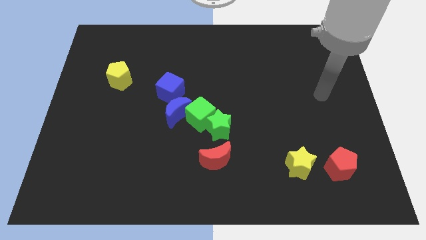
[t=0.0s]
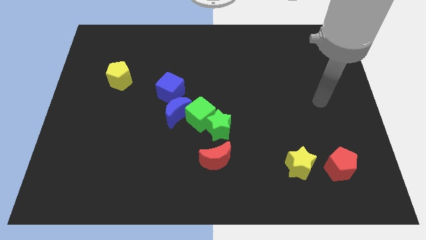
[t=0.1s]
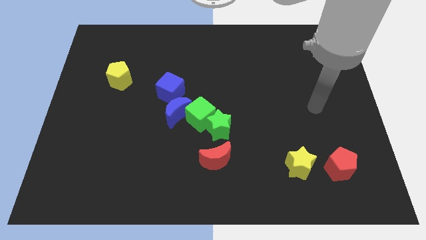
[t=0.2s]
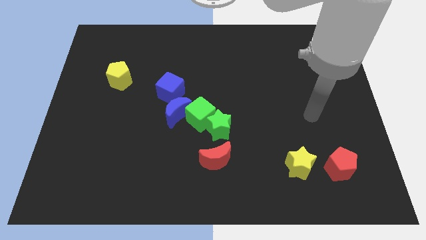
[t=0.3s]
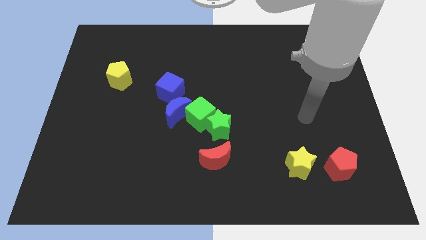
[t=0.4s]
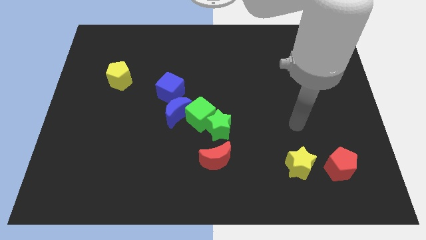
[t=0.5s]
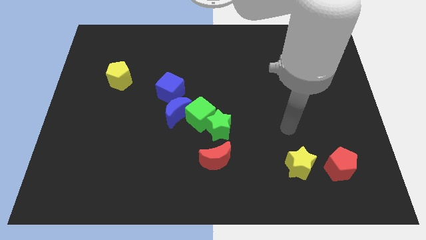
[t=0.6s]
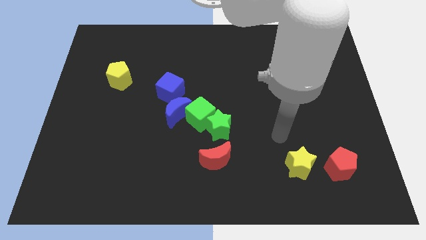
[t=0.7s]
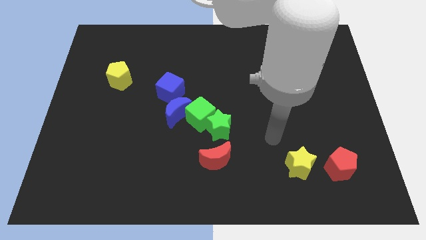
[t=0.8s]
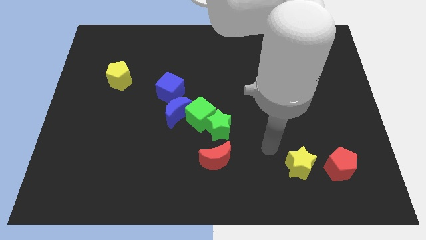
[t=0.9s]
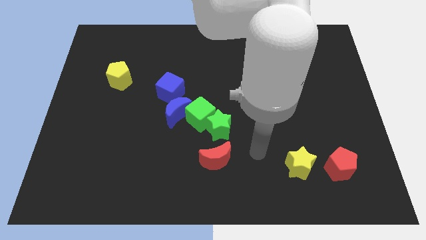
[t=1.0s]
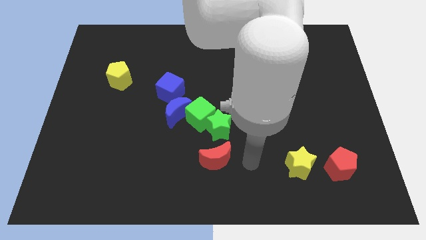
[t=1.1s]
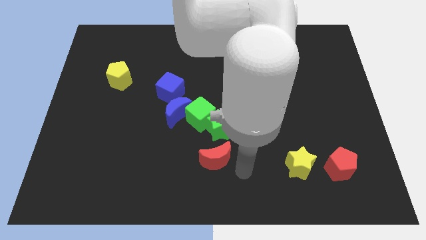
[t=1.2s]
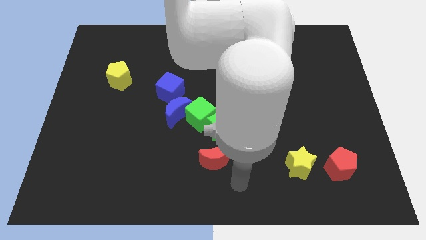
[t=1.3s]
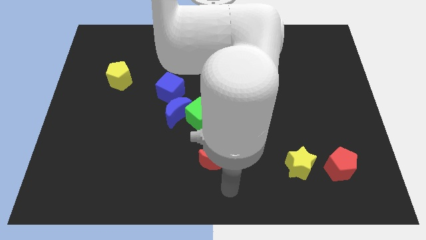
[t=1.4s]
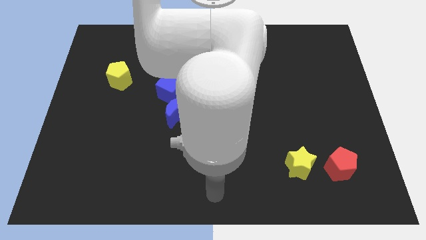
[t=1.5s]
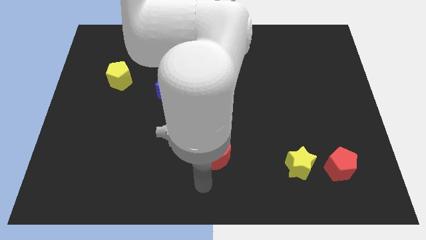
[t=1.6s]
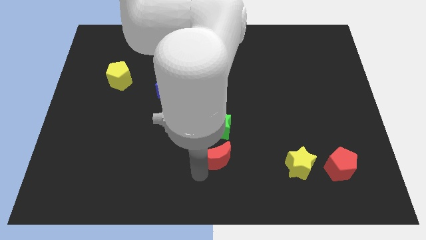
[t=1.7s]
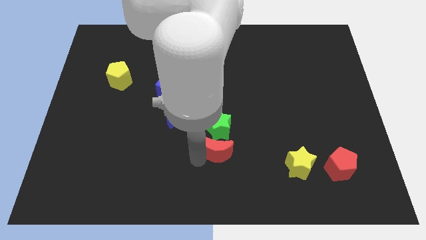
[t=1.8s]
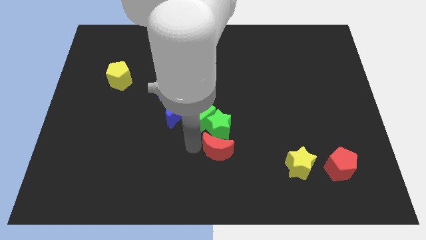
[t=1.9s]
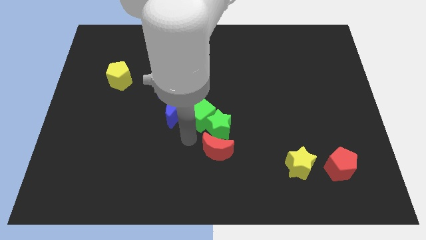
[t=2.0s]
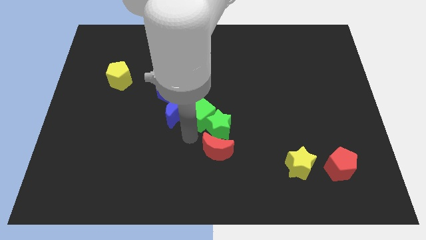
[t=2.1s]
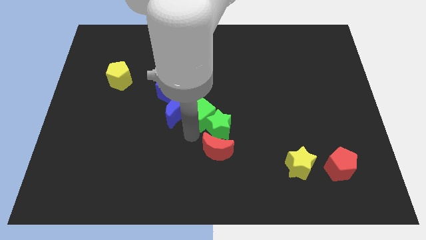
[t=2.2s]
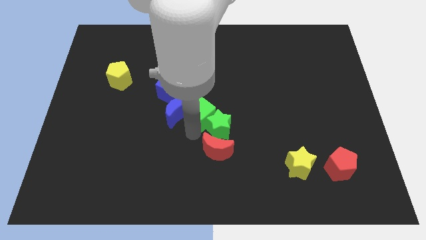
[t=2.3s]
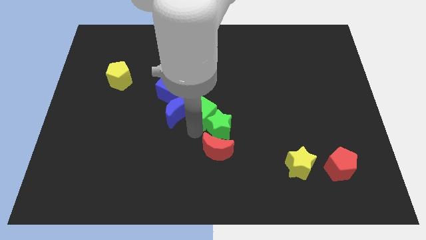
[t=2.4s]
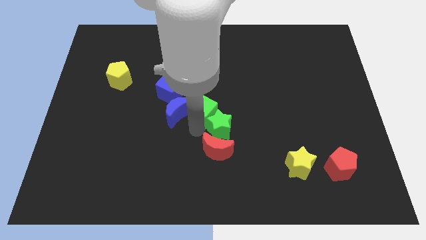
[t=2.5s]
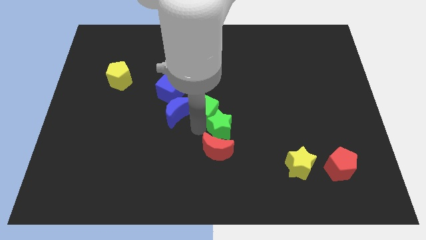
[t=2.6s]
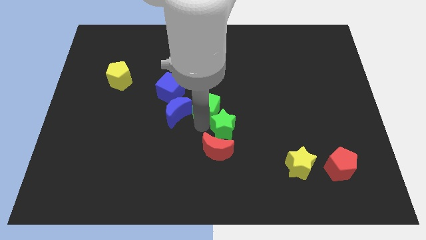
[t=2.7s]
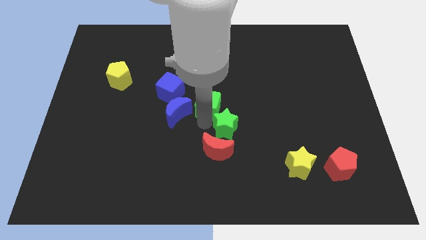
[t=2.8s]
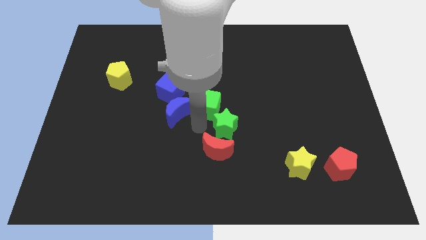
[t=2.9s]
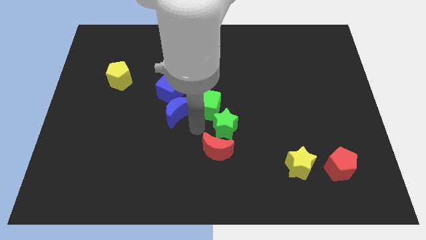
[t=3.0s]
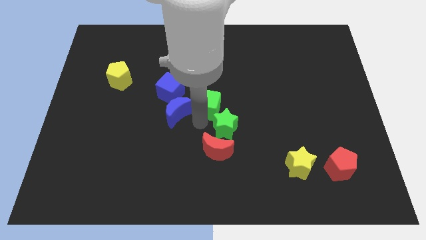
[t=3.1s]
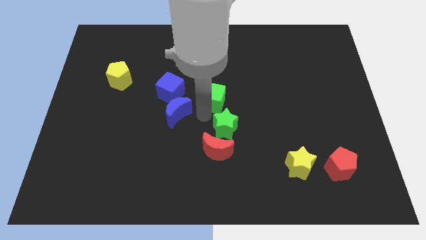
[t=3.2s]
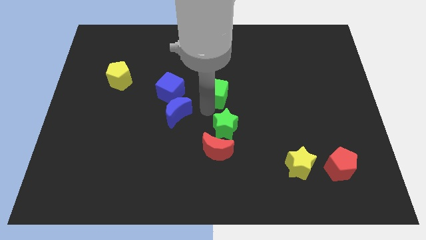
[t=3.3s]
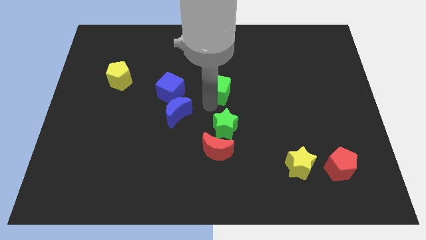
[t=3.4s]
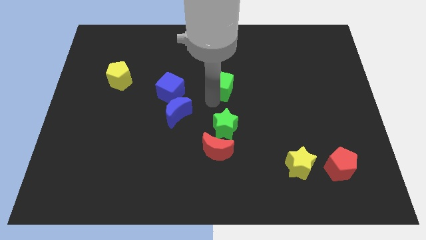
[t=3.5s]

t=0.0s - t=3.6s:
move the green cube away from the green star and blue moon

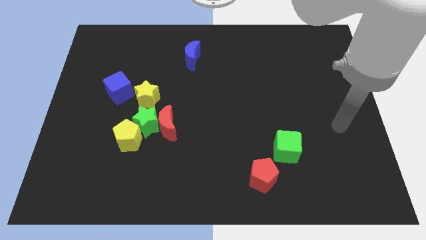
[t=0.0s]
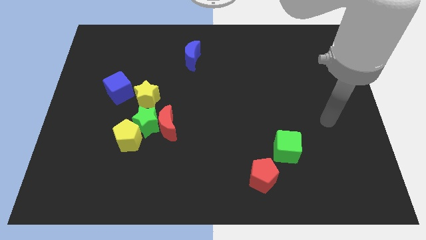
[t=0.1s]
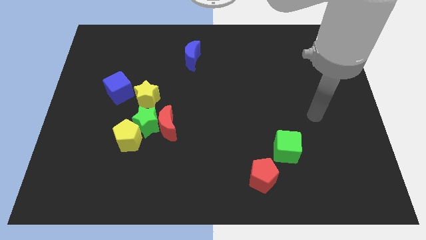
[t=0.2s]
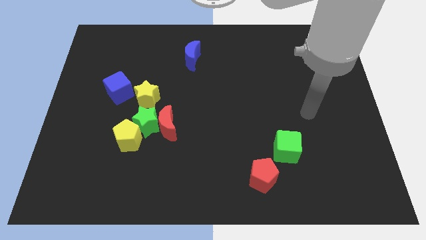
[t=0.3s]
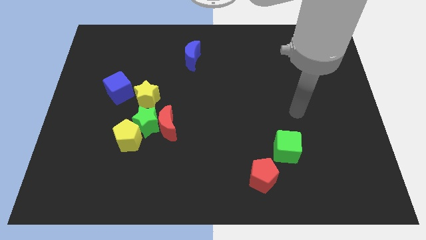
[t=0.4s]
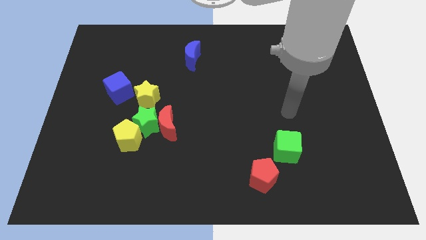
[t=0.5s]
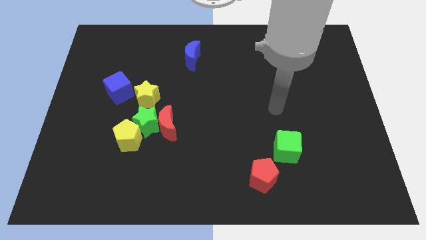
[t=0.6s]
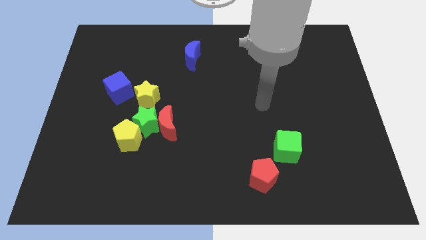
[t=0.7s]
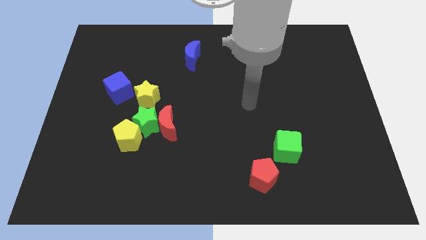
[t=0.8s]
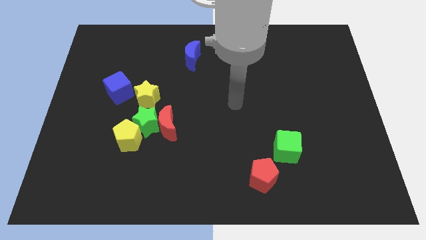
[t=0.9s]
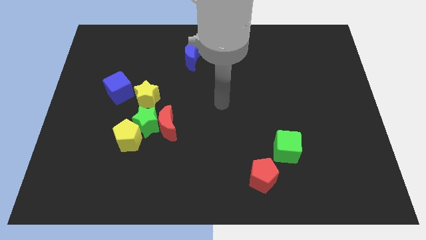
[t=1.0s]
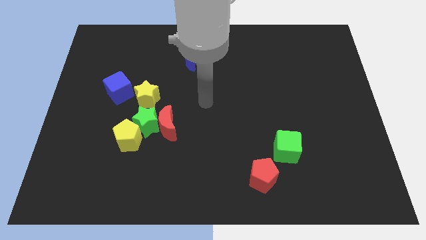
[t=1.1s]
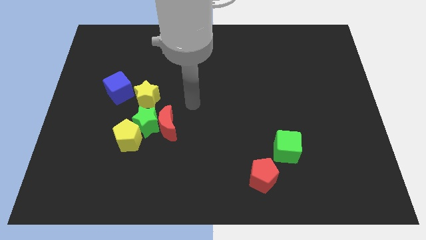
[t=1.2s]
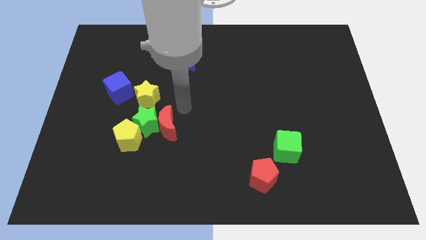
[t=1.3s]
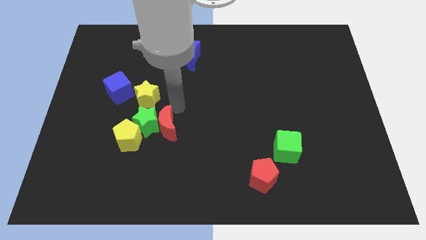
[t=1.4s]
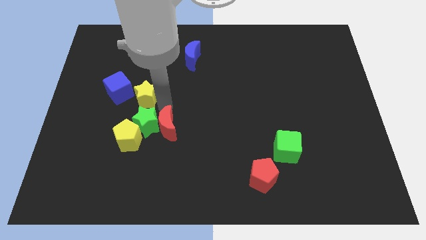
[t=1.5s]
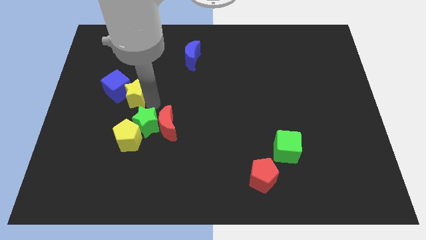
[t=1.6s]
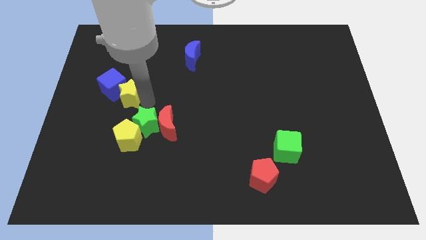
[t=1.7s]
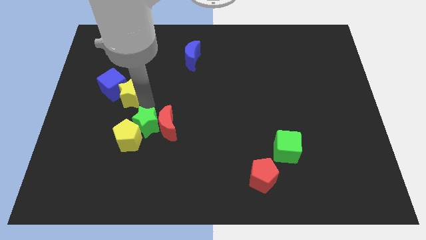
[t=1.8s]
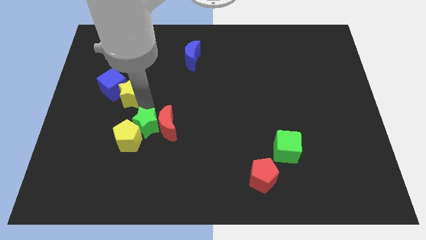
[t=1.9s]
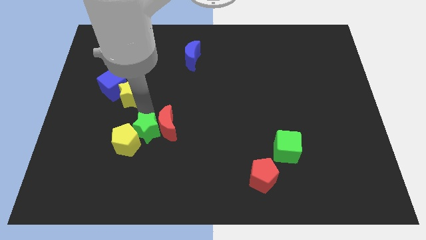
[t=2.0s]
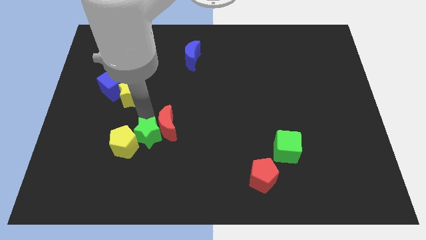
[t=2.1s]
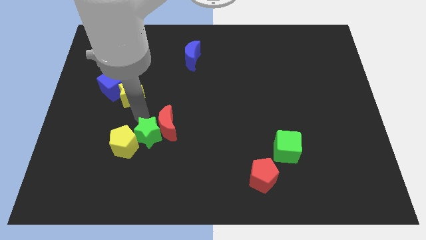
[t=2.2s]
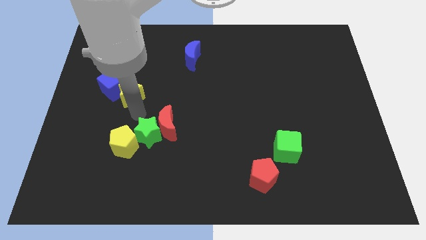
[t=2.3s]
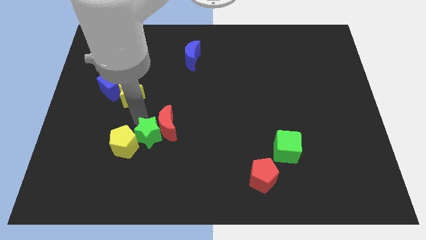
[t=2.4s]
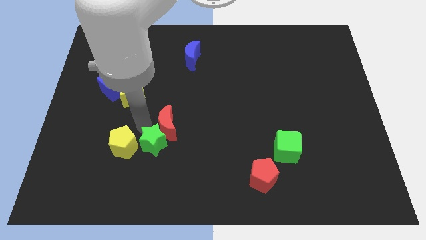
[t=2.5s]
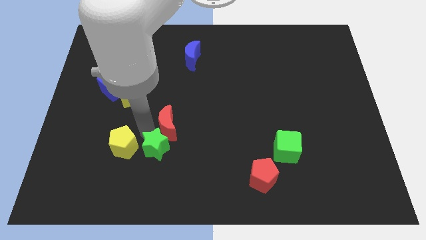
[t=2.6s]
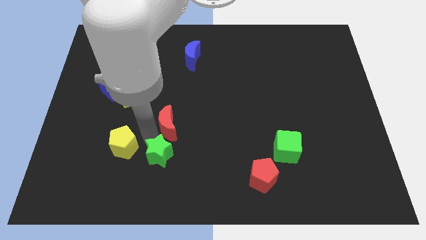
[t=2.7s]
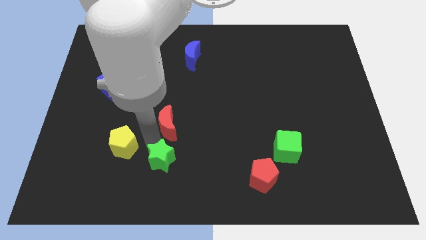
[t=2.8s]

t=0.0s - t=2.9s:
separate the green star from the red moon, yellow pentagon, and yellow star

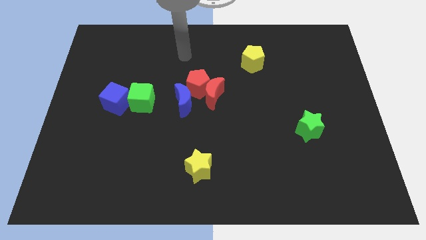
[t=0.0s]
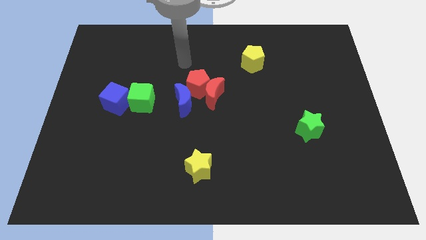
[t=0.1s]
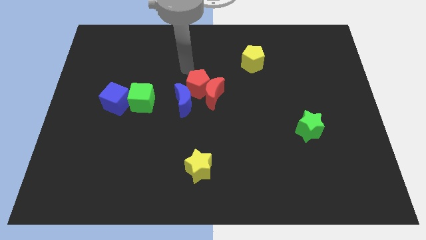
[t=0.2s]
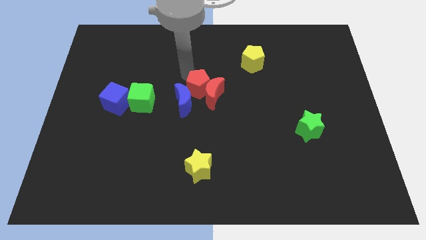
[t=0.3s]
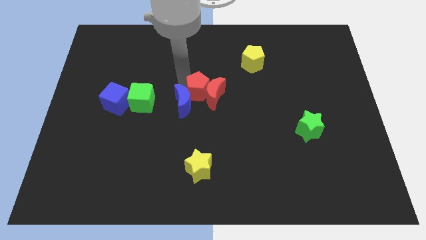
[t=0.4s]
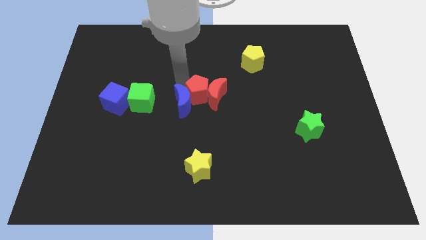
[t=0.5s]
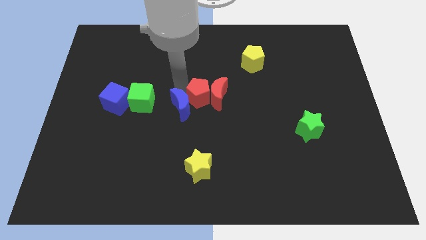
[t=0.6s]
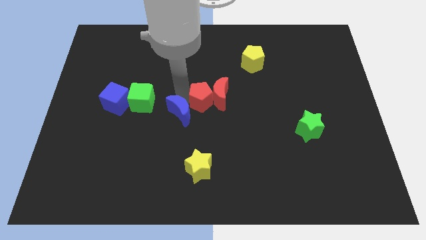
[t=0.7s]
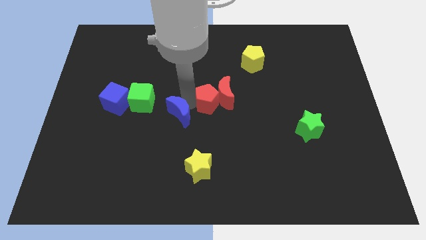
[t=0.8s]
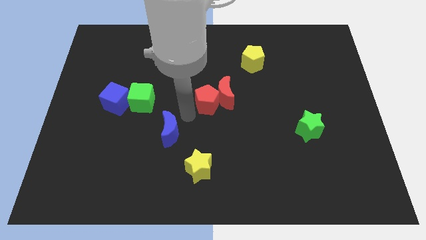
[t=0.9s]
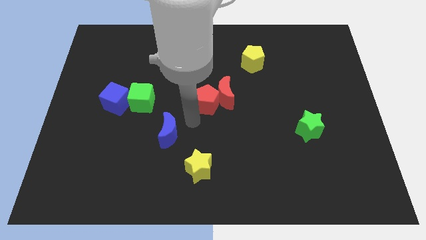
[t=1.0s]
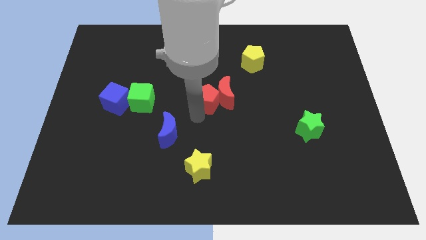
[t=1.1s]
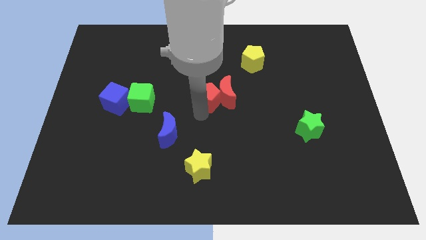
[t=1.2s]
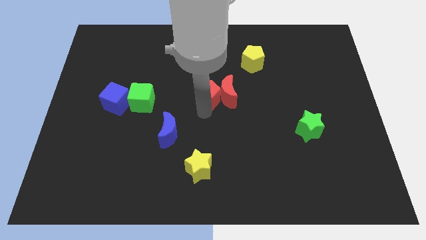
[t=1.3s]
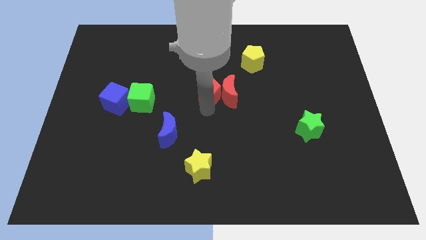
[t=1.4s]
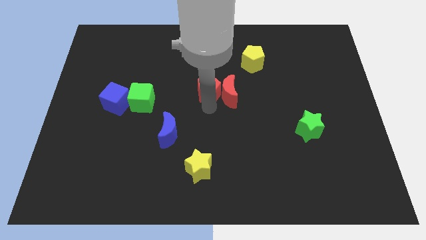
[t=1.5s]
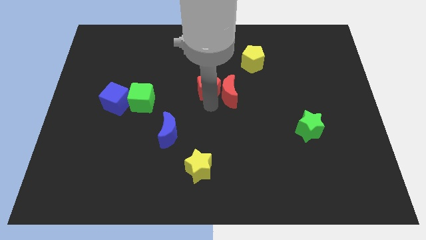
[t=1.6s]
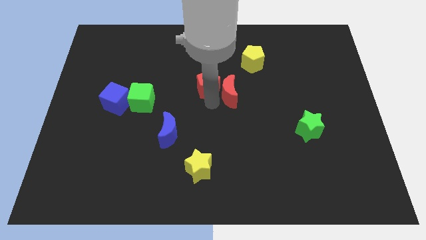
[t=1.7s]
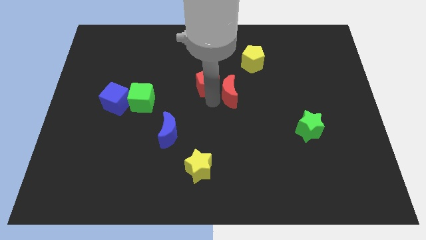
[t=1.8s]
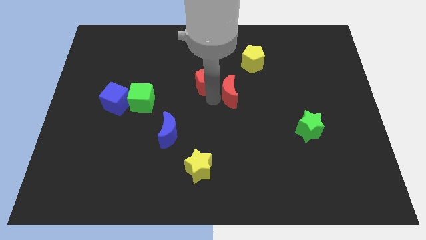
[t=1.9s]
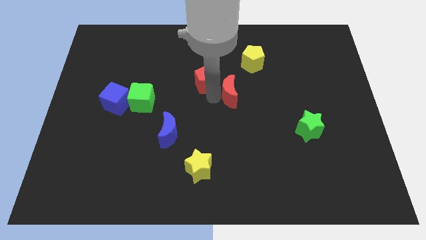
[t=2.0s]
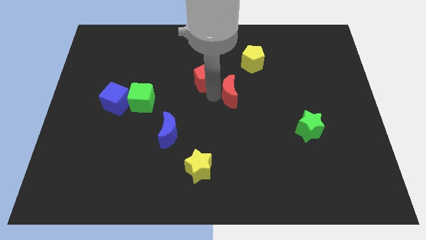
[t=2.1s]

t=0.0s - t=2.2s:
move the red pentagon away from the red moon and blue moon

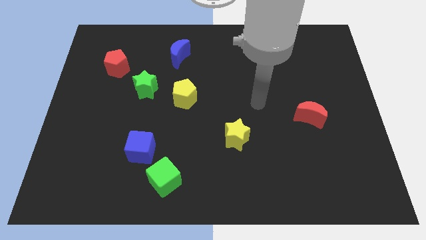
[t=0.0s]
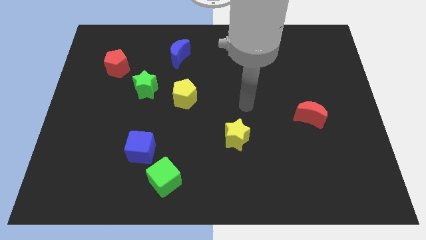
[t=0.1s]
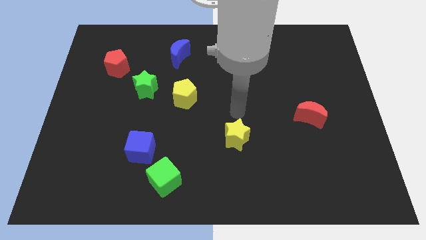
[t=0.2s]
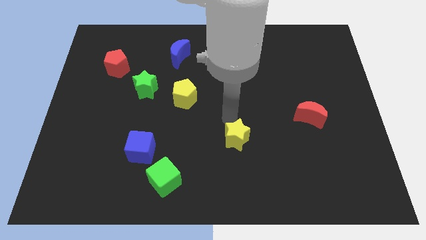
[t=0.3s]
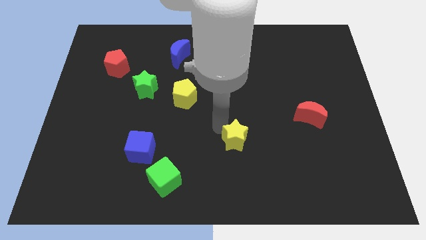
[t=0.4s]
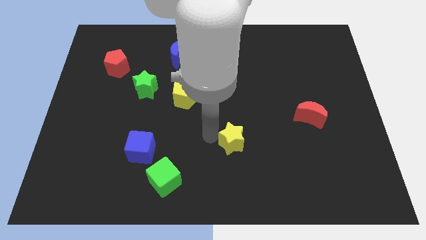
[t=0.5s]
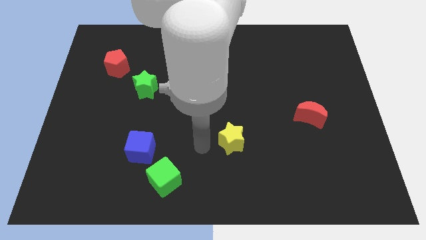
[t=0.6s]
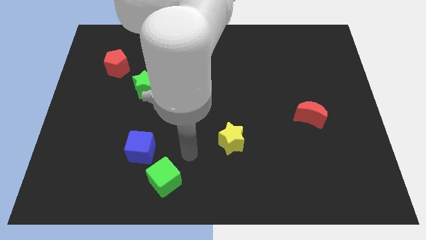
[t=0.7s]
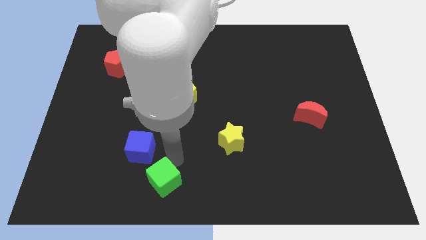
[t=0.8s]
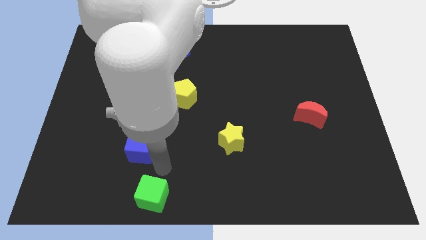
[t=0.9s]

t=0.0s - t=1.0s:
move the blue cube away from the green cube
